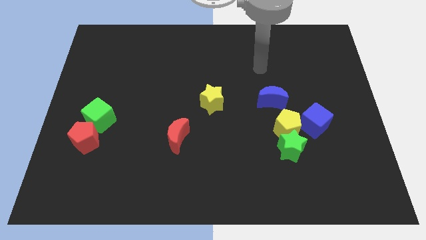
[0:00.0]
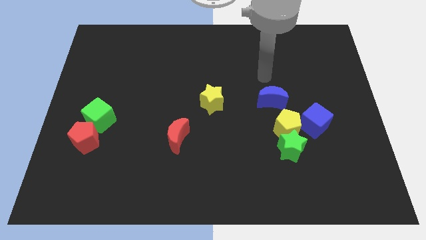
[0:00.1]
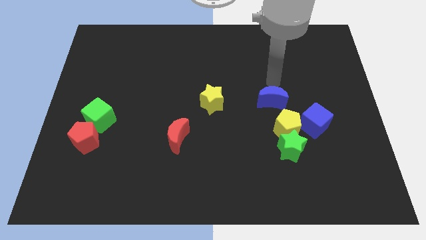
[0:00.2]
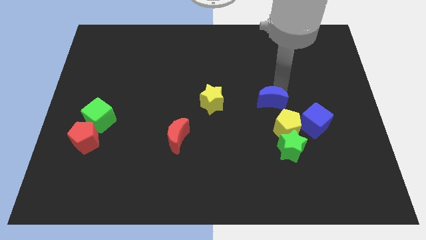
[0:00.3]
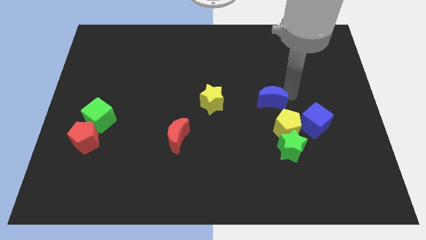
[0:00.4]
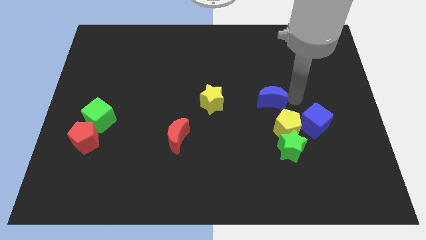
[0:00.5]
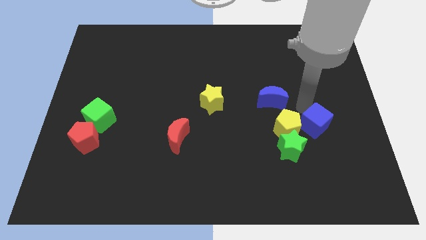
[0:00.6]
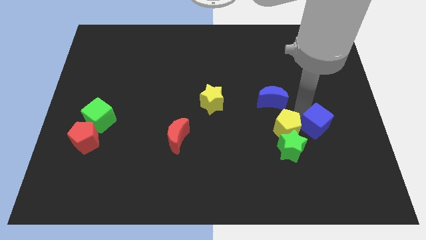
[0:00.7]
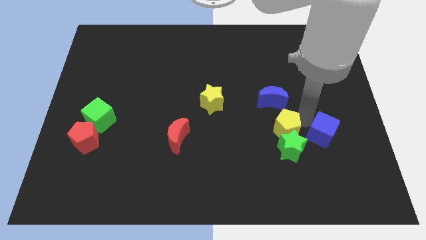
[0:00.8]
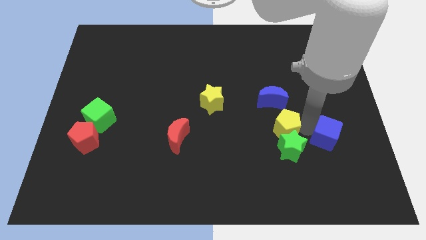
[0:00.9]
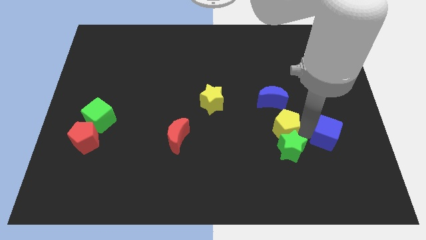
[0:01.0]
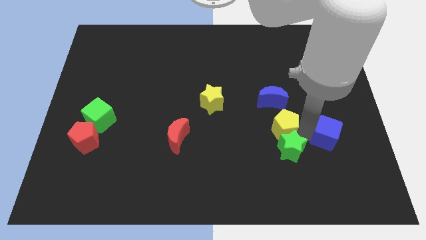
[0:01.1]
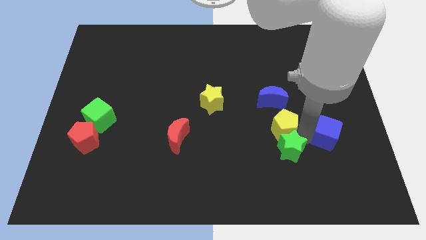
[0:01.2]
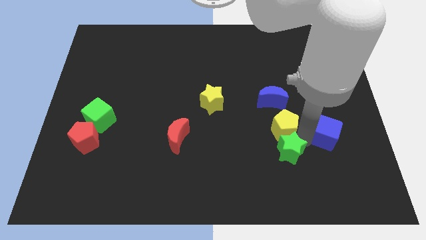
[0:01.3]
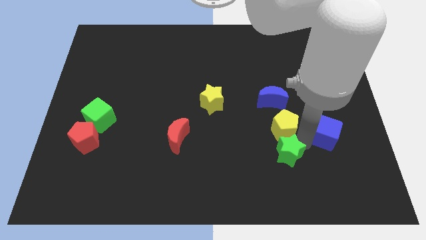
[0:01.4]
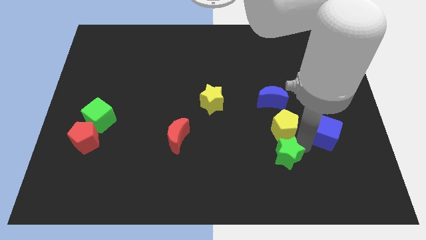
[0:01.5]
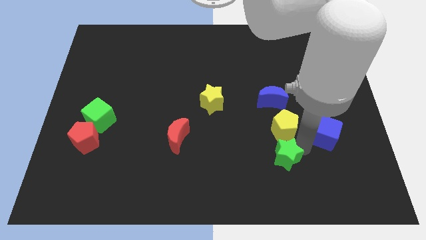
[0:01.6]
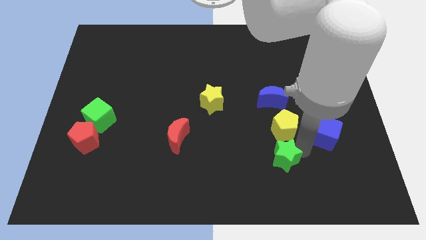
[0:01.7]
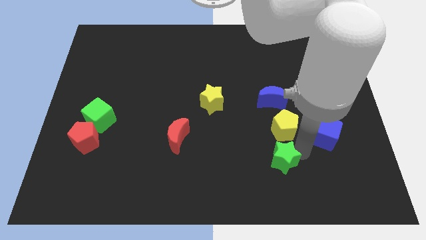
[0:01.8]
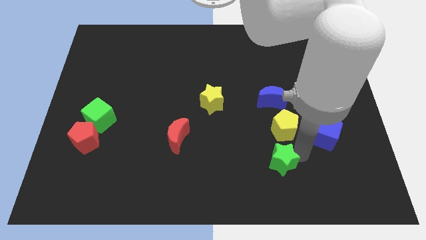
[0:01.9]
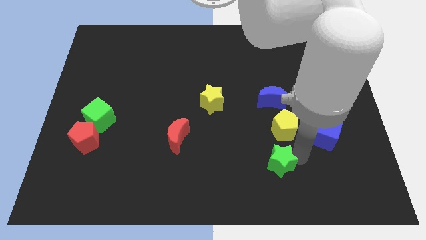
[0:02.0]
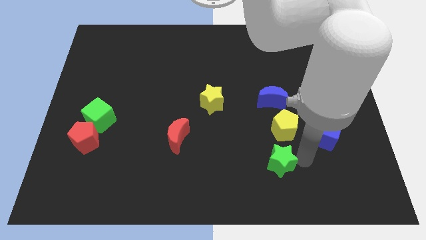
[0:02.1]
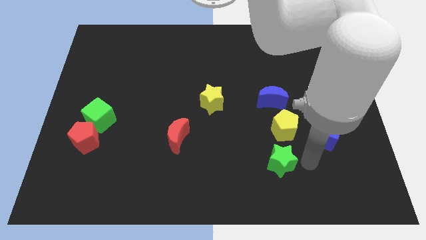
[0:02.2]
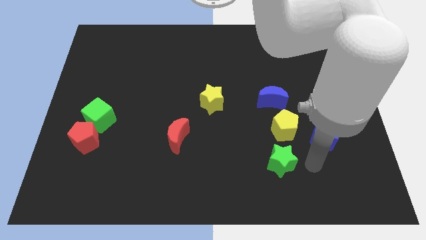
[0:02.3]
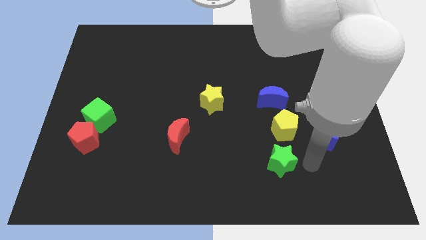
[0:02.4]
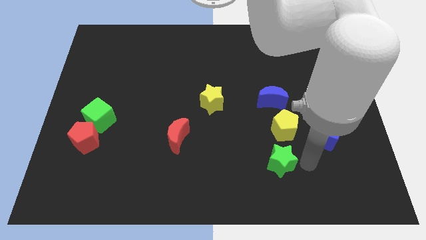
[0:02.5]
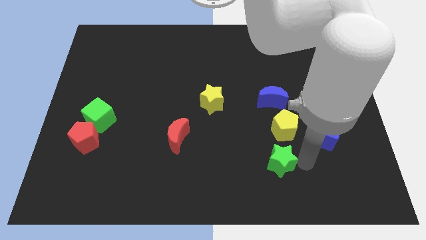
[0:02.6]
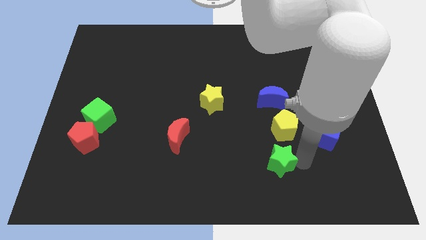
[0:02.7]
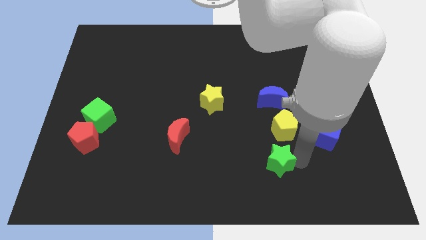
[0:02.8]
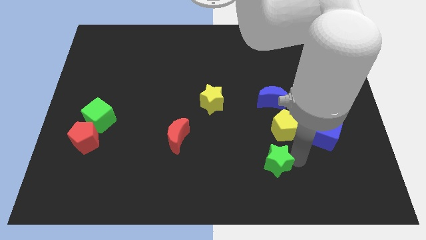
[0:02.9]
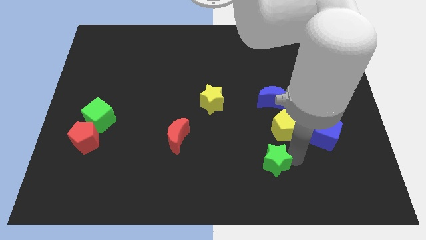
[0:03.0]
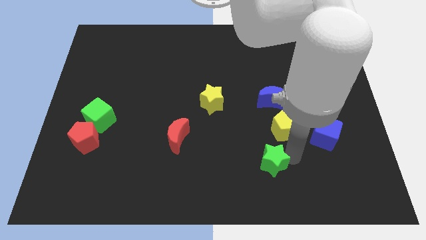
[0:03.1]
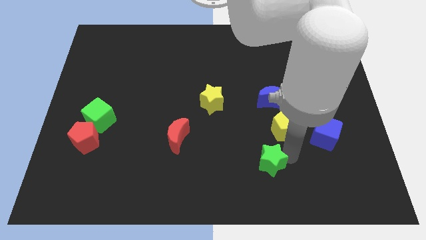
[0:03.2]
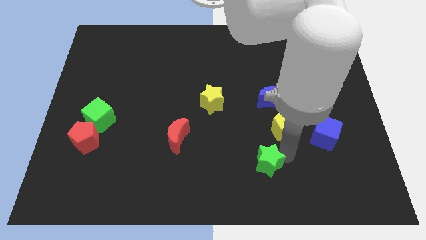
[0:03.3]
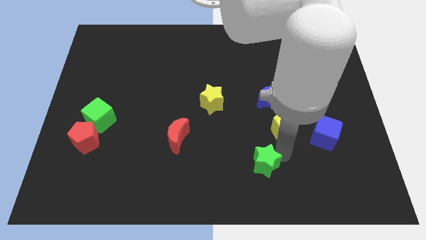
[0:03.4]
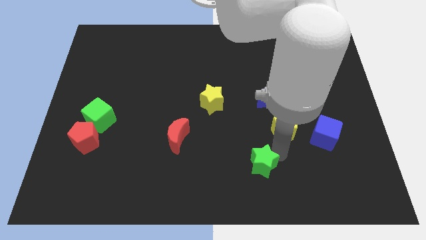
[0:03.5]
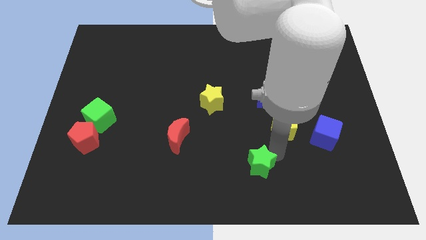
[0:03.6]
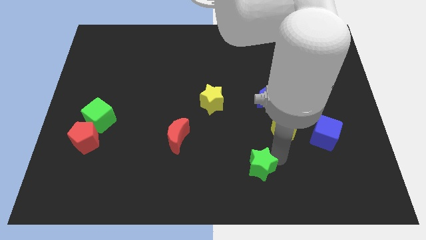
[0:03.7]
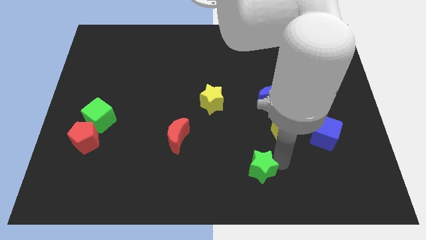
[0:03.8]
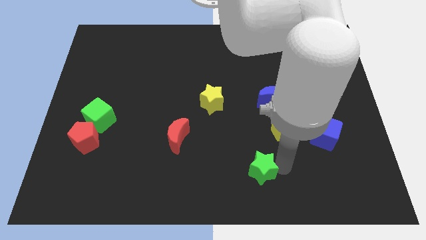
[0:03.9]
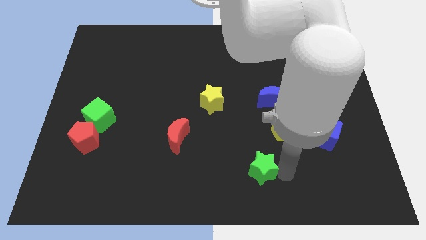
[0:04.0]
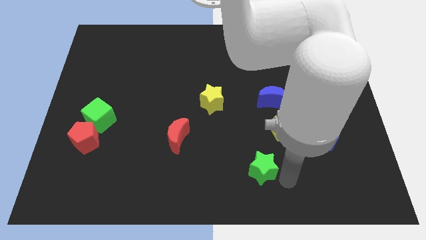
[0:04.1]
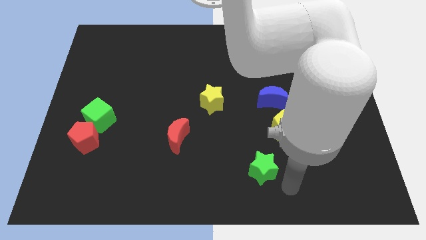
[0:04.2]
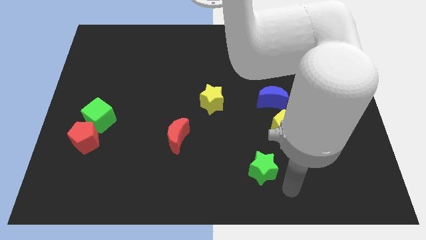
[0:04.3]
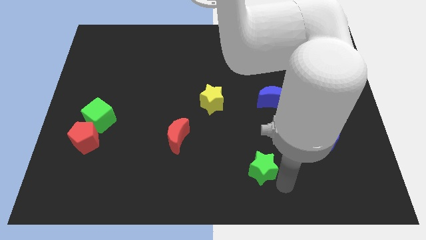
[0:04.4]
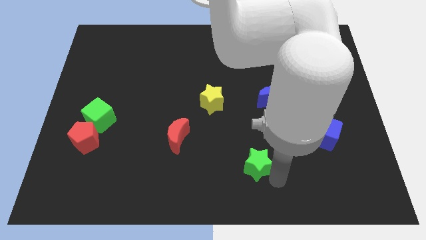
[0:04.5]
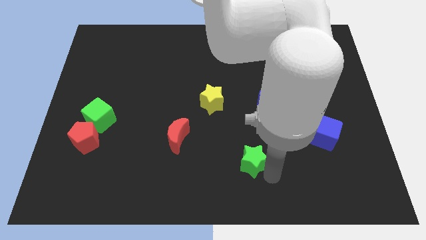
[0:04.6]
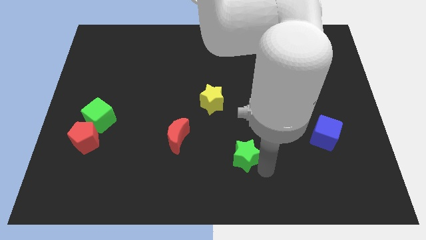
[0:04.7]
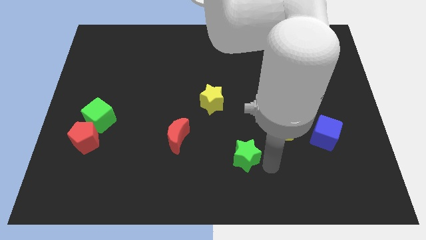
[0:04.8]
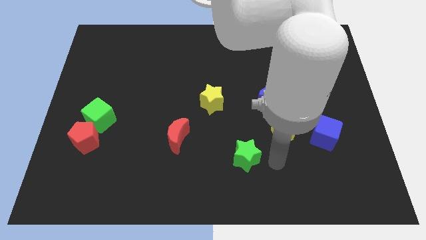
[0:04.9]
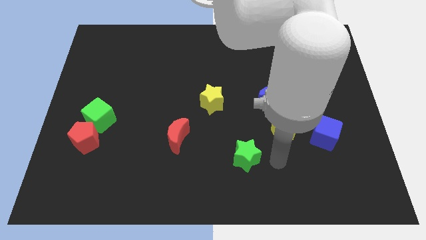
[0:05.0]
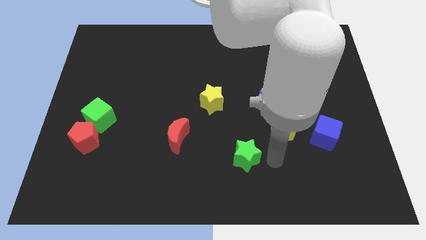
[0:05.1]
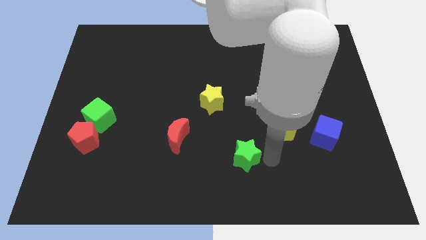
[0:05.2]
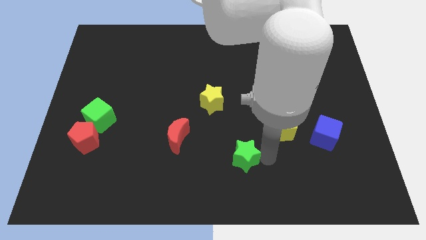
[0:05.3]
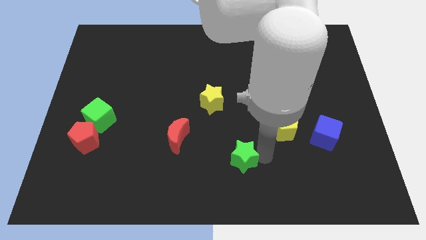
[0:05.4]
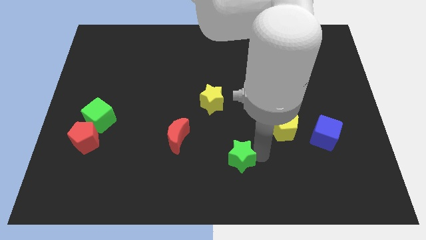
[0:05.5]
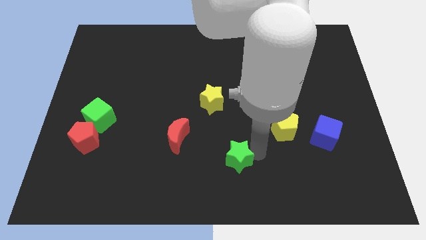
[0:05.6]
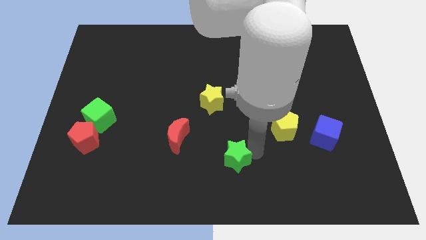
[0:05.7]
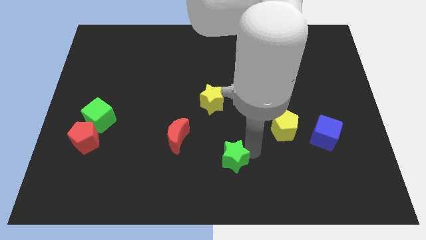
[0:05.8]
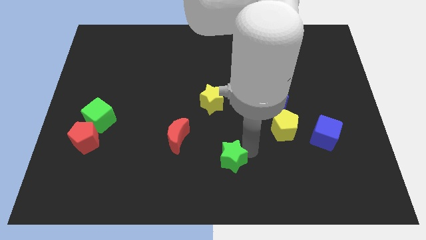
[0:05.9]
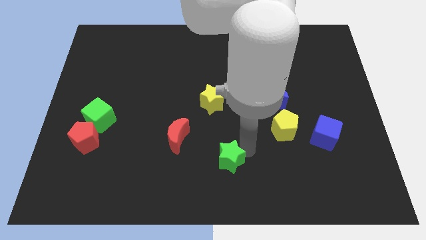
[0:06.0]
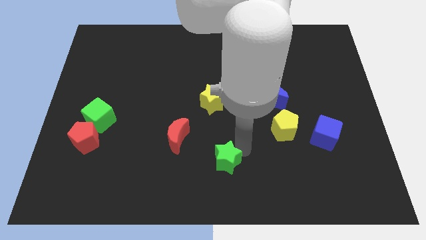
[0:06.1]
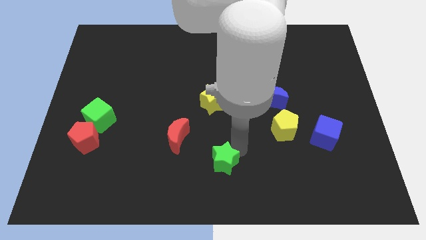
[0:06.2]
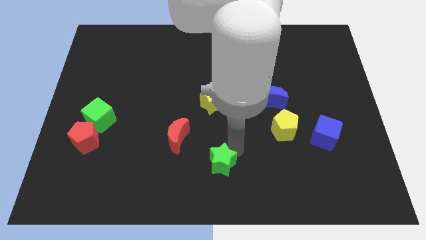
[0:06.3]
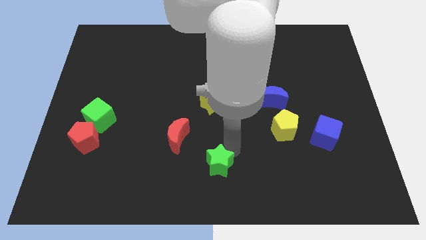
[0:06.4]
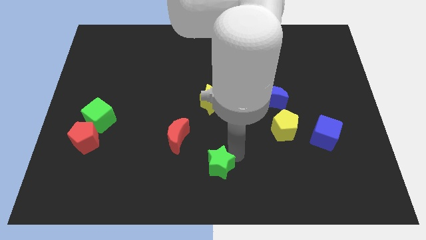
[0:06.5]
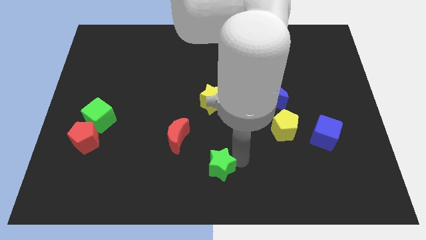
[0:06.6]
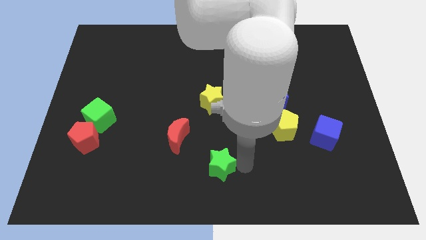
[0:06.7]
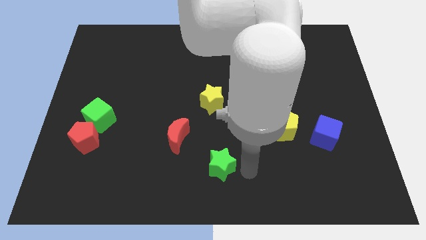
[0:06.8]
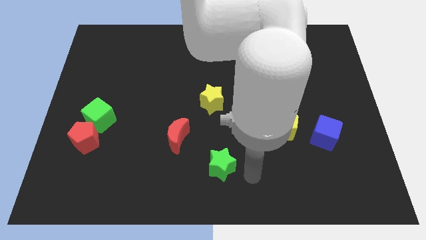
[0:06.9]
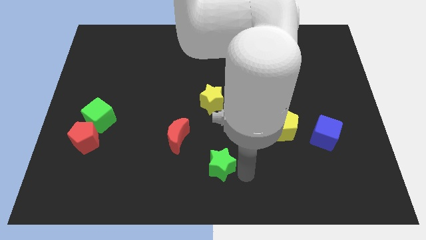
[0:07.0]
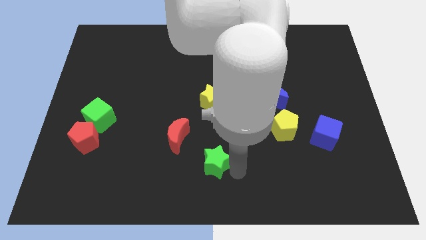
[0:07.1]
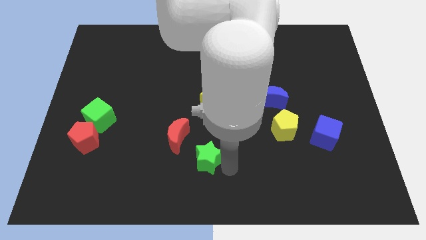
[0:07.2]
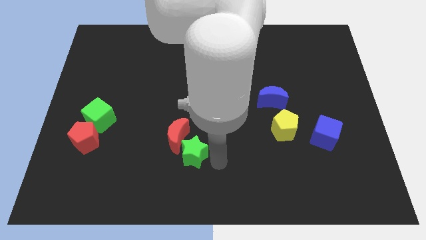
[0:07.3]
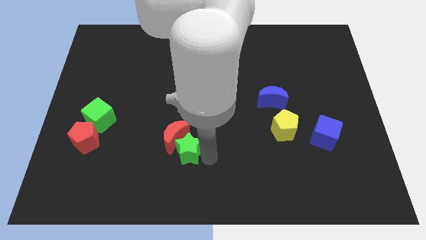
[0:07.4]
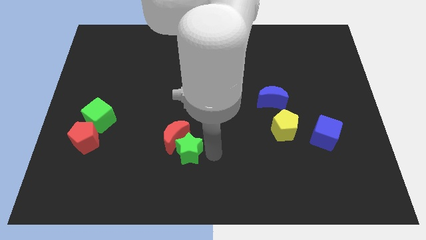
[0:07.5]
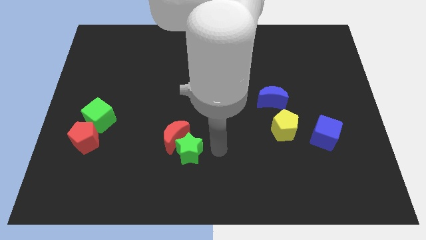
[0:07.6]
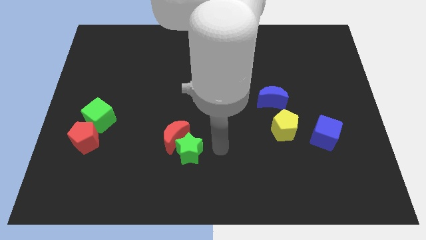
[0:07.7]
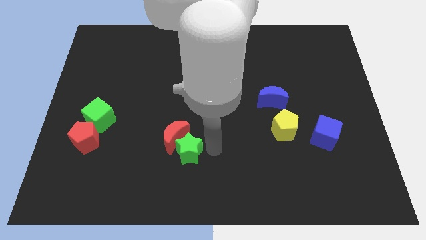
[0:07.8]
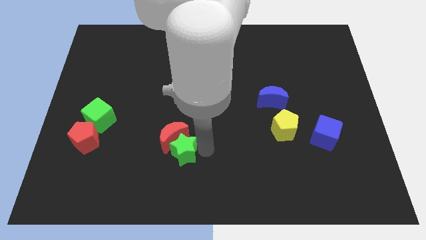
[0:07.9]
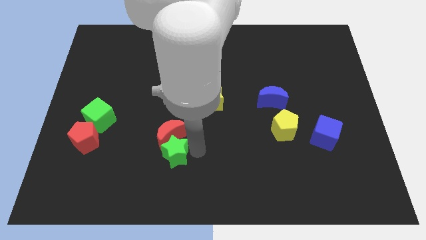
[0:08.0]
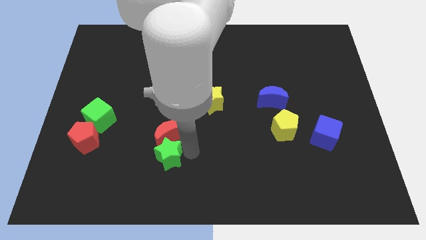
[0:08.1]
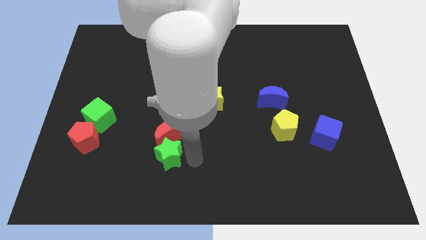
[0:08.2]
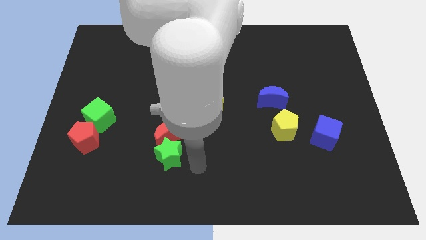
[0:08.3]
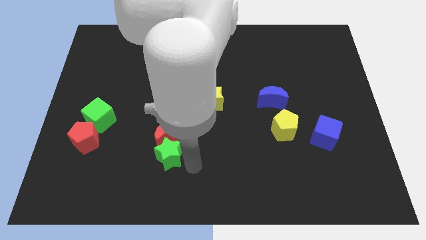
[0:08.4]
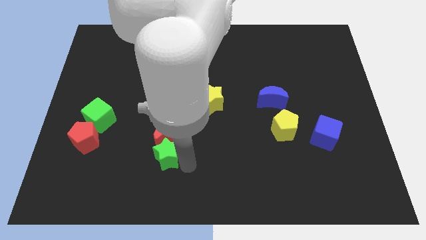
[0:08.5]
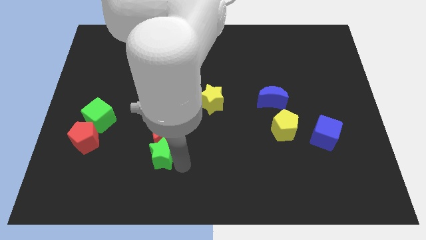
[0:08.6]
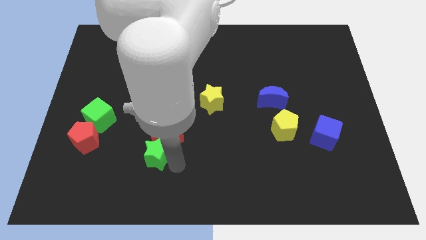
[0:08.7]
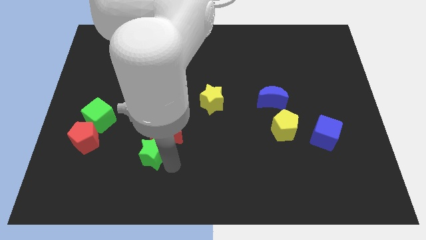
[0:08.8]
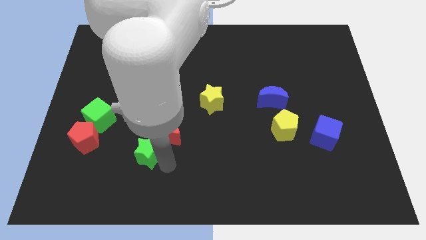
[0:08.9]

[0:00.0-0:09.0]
push the green star just left of the red moon
